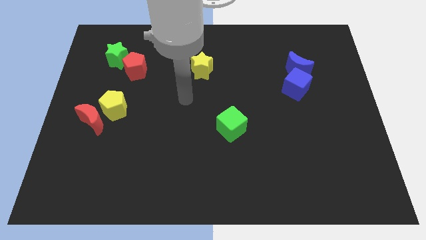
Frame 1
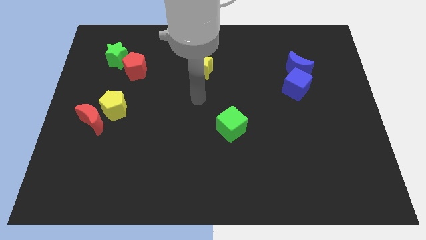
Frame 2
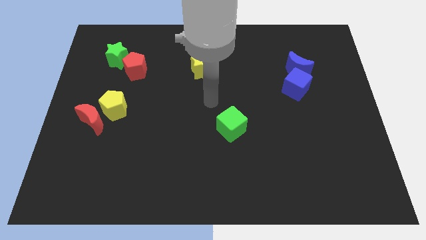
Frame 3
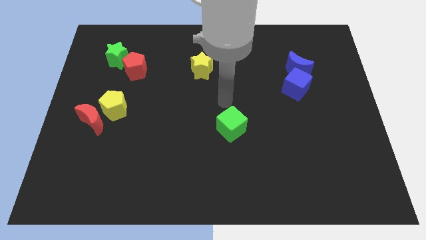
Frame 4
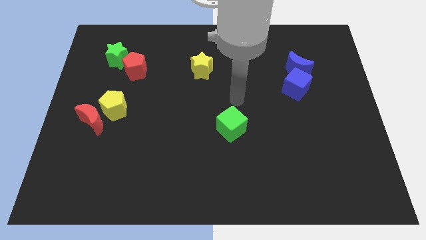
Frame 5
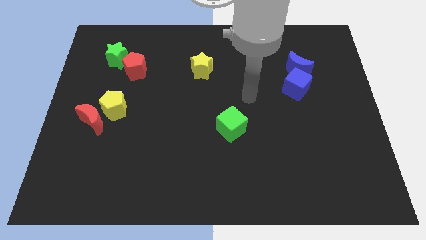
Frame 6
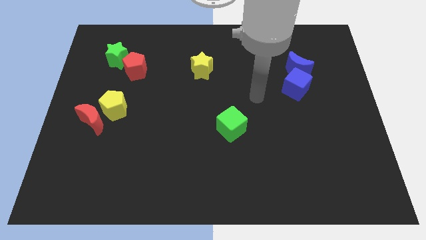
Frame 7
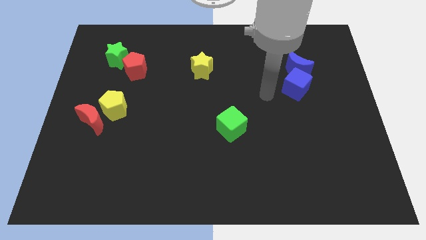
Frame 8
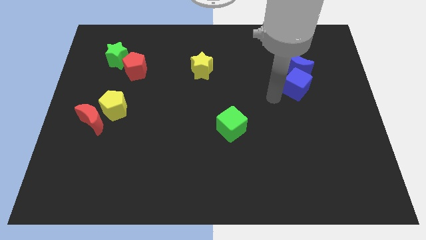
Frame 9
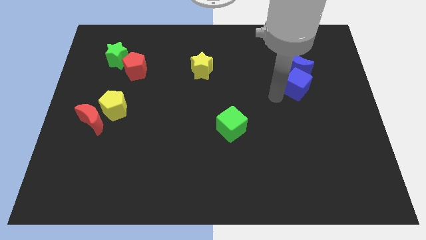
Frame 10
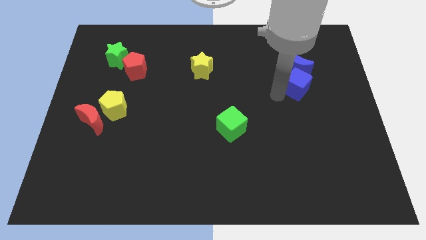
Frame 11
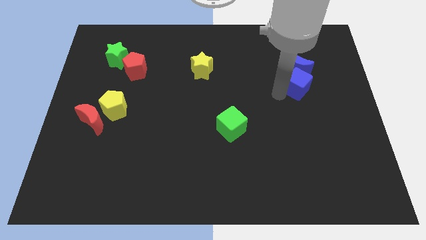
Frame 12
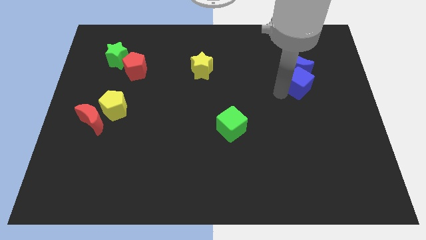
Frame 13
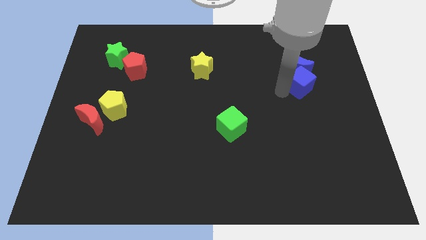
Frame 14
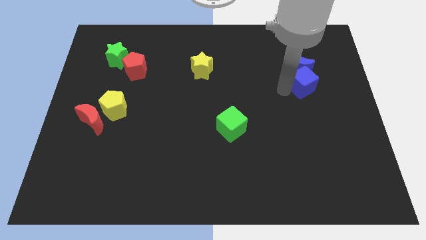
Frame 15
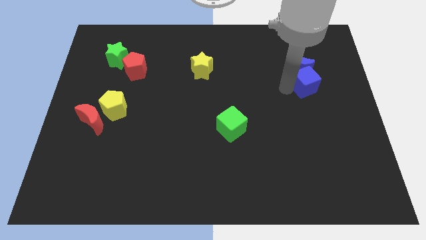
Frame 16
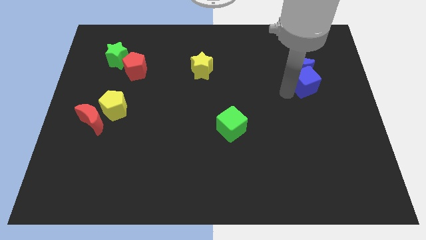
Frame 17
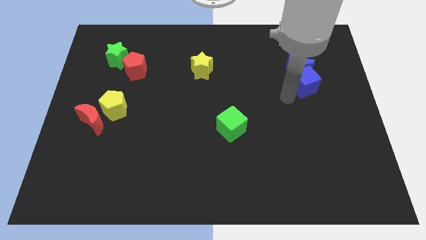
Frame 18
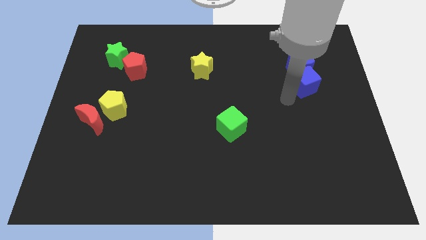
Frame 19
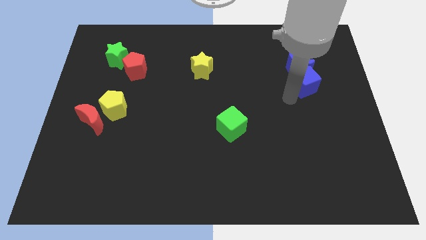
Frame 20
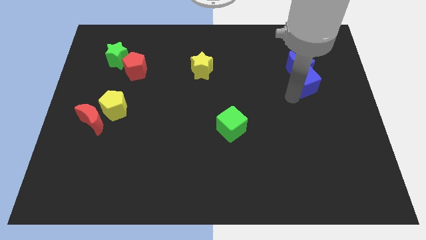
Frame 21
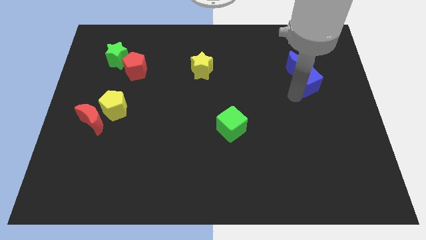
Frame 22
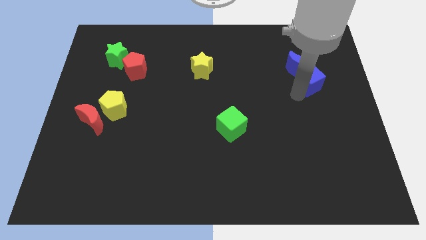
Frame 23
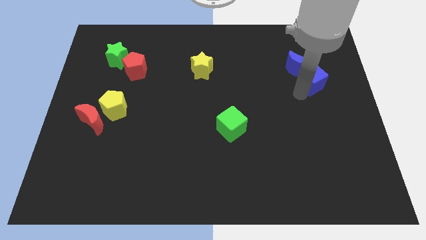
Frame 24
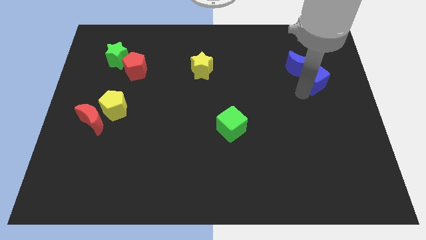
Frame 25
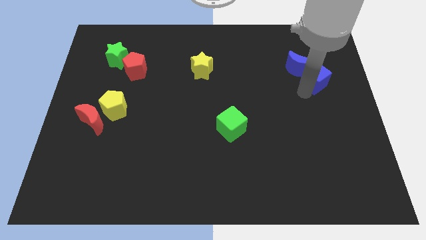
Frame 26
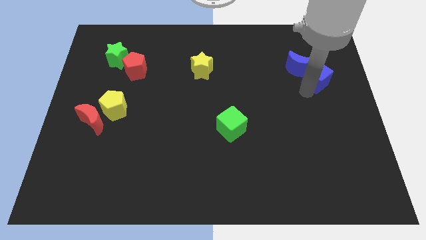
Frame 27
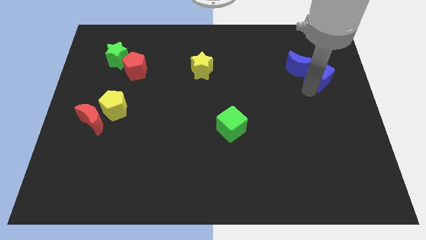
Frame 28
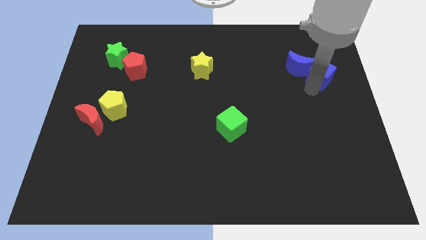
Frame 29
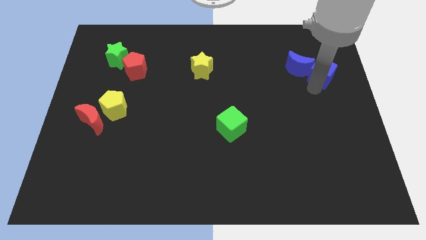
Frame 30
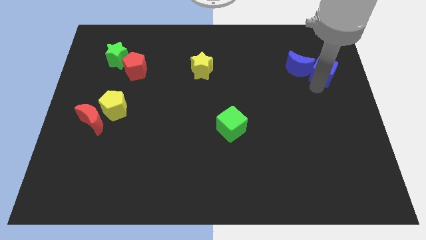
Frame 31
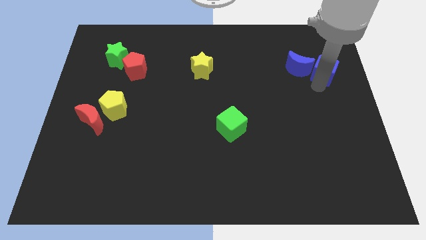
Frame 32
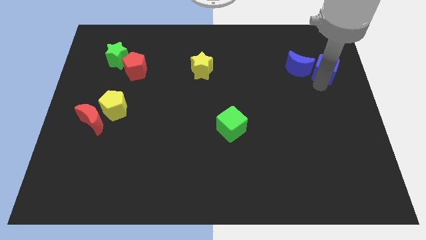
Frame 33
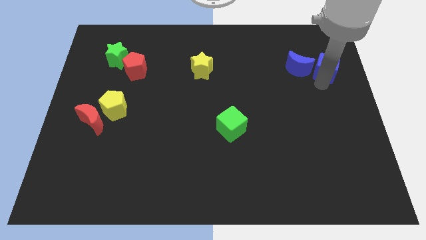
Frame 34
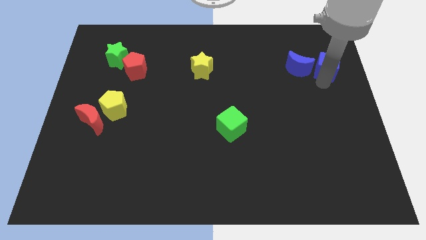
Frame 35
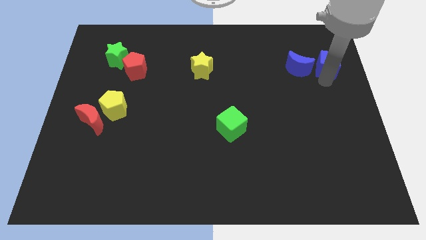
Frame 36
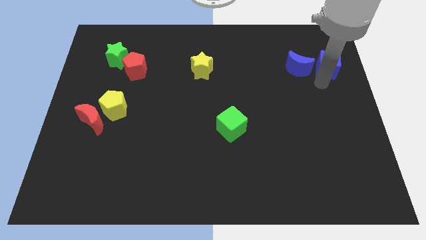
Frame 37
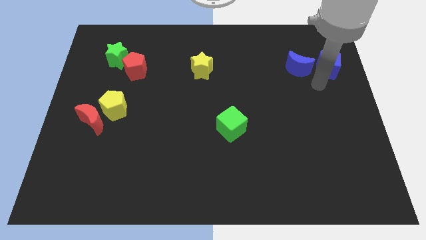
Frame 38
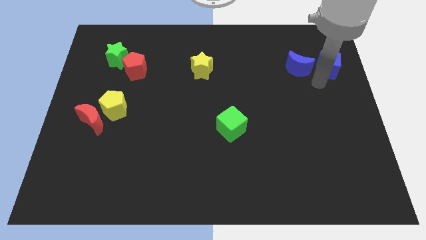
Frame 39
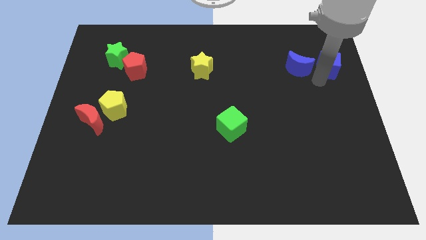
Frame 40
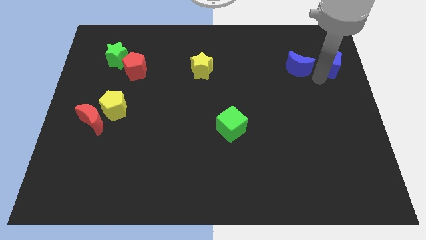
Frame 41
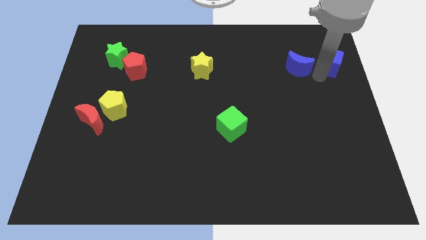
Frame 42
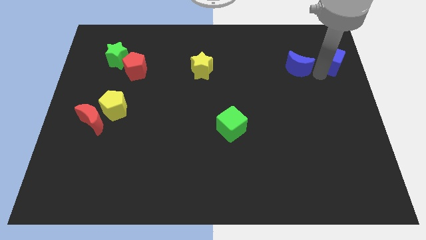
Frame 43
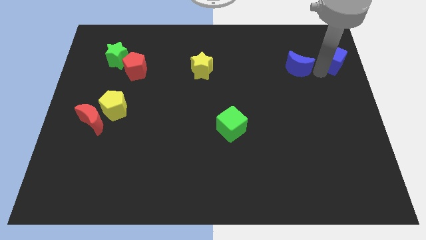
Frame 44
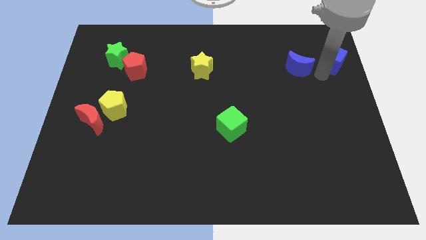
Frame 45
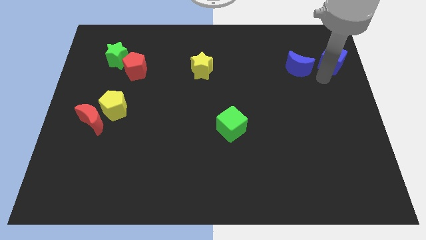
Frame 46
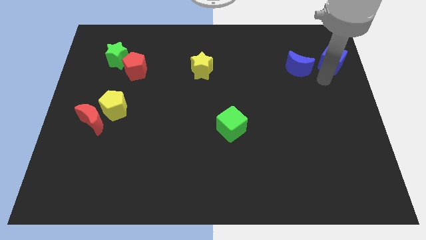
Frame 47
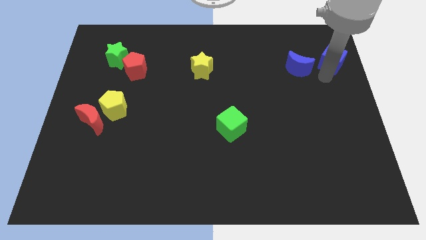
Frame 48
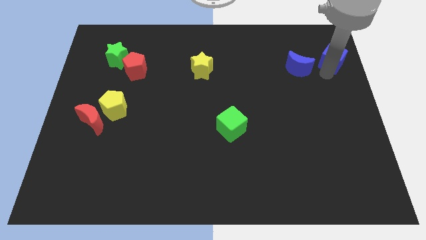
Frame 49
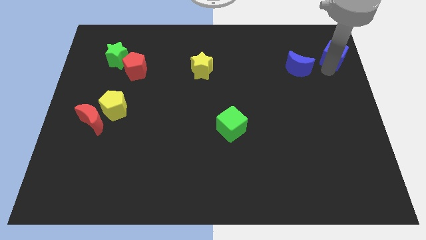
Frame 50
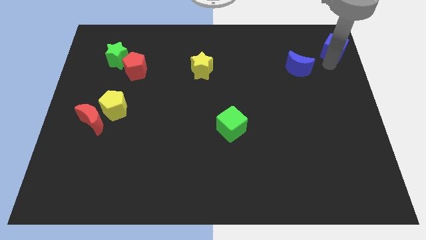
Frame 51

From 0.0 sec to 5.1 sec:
push the blue cube to the top right

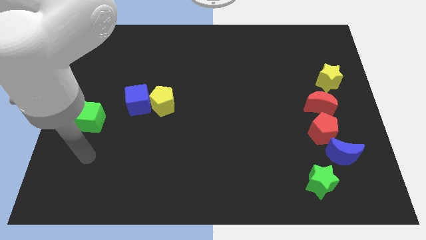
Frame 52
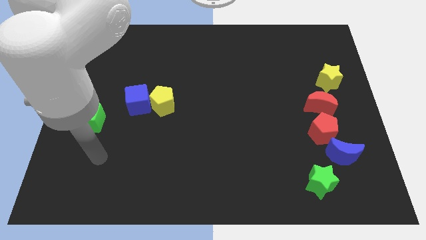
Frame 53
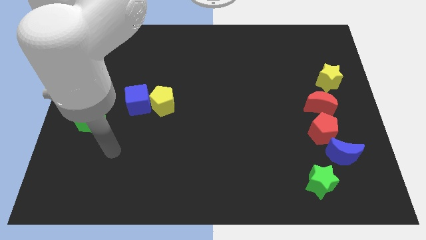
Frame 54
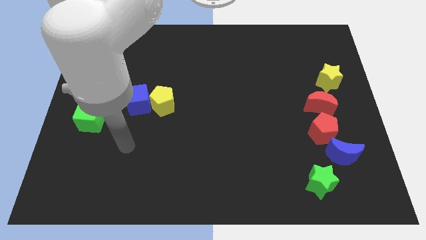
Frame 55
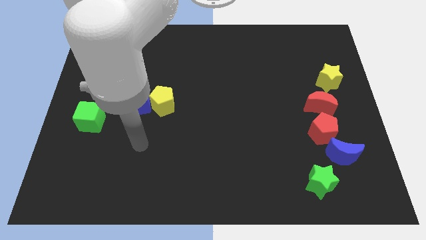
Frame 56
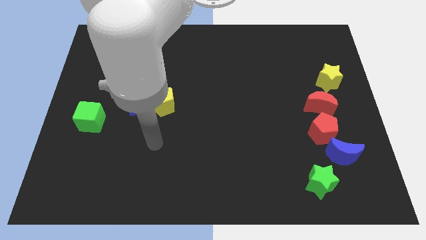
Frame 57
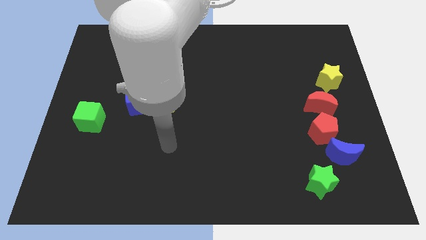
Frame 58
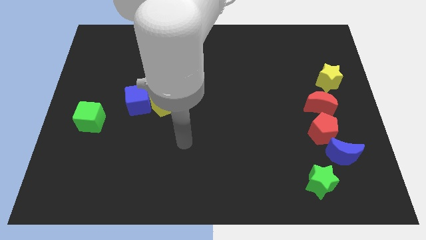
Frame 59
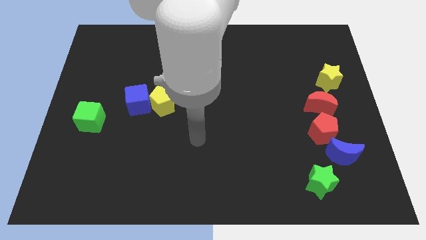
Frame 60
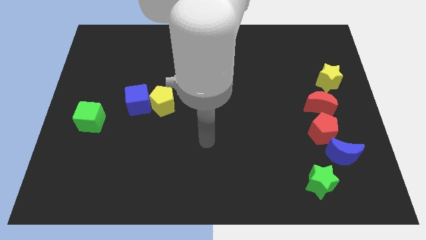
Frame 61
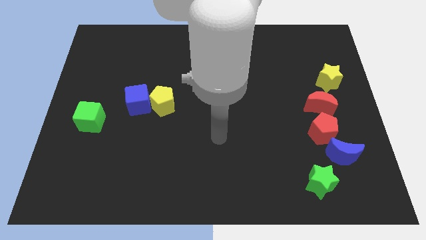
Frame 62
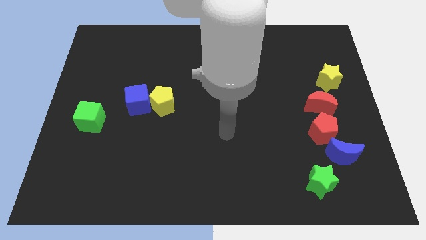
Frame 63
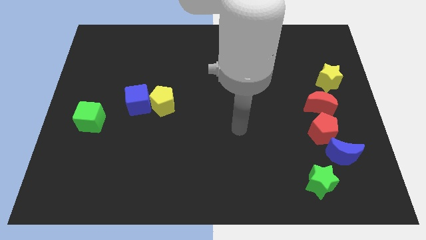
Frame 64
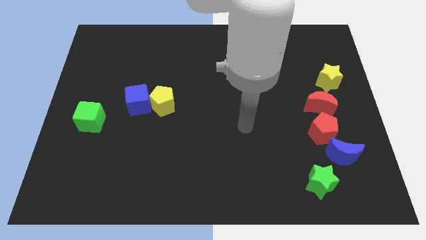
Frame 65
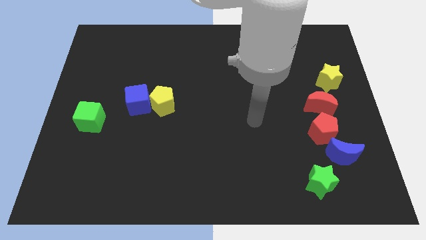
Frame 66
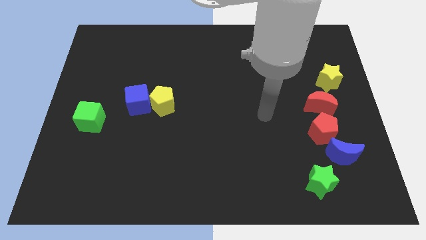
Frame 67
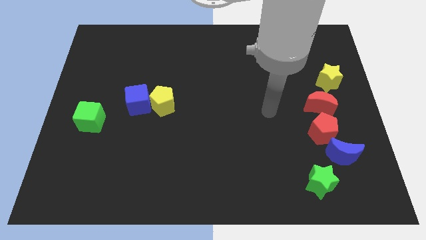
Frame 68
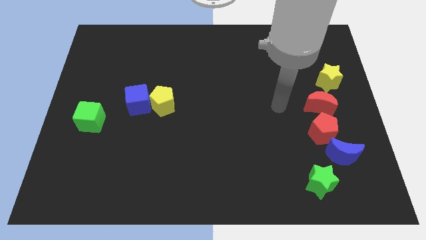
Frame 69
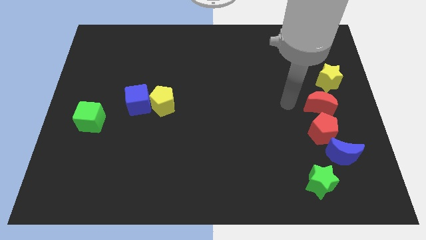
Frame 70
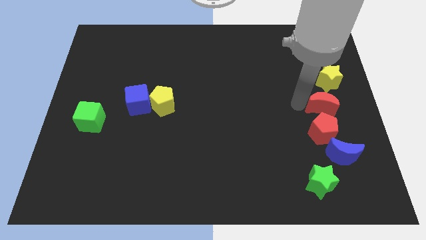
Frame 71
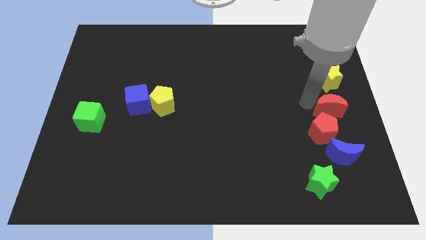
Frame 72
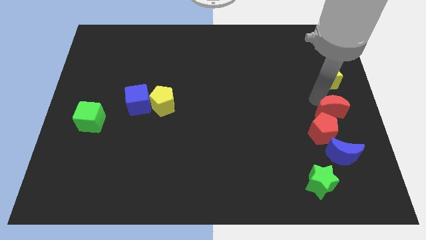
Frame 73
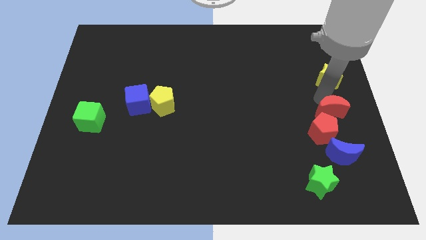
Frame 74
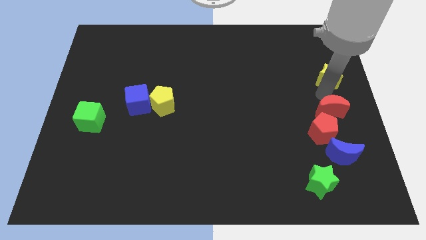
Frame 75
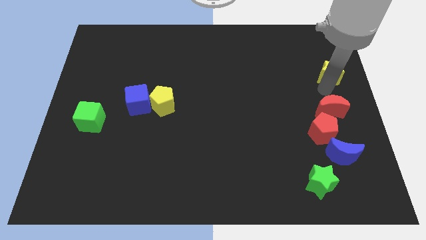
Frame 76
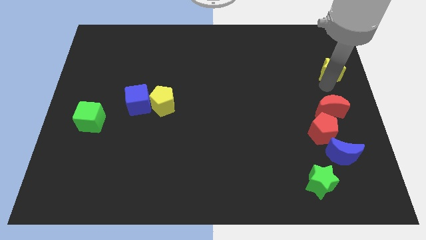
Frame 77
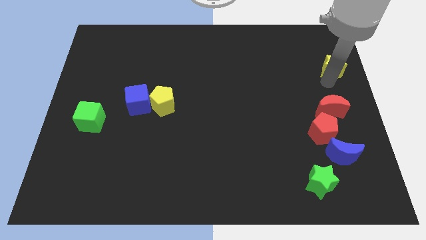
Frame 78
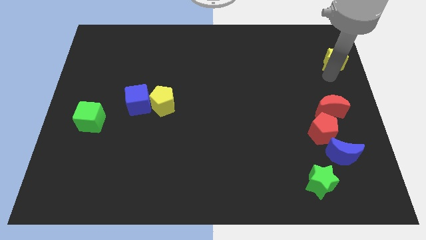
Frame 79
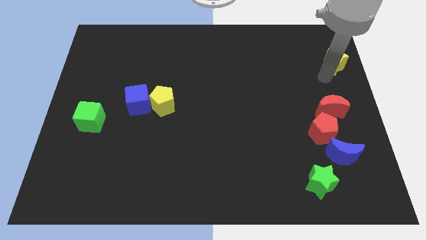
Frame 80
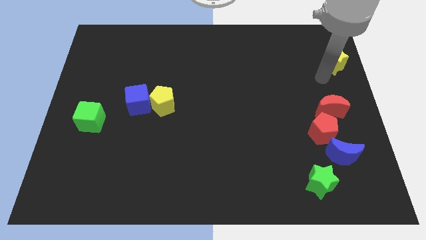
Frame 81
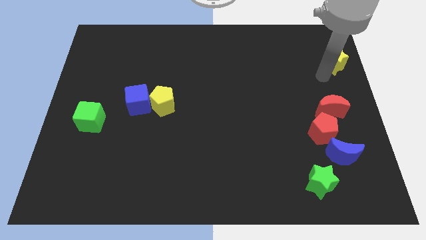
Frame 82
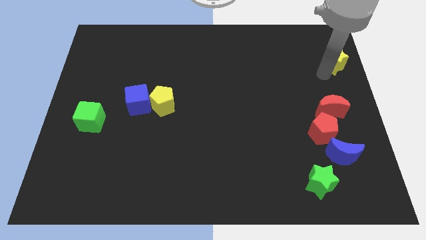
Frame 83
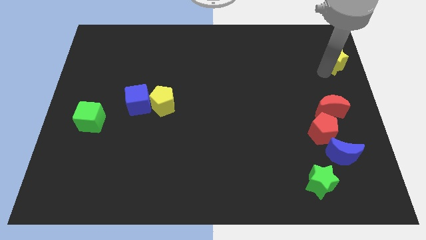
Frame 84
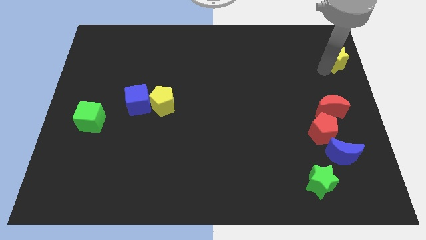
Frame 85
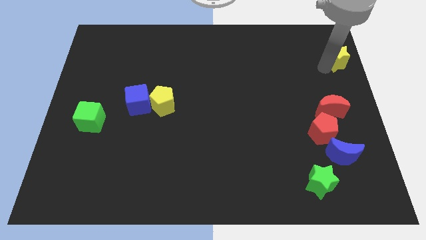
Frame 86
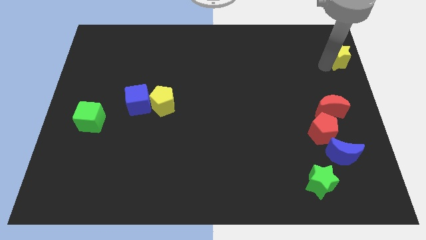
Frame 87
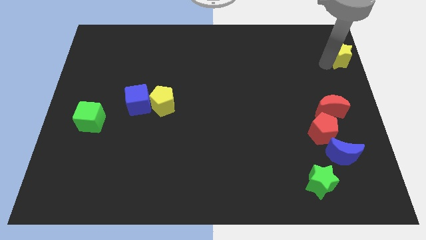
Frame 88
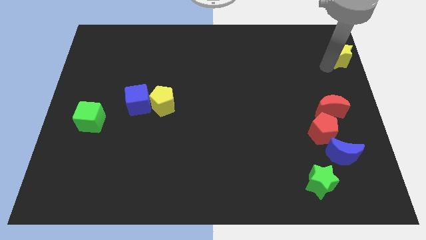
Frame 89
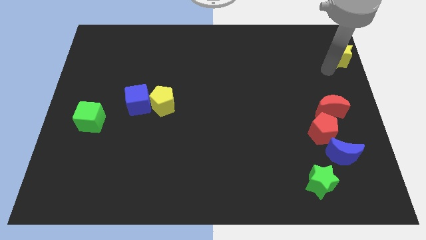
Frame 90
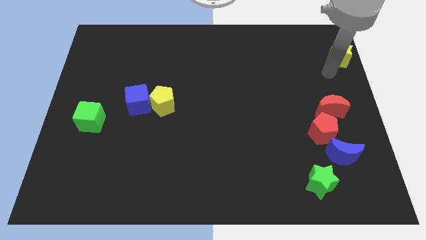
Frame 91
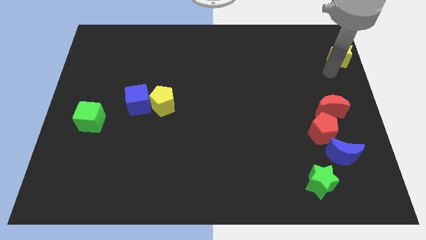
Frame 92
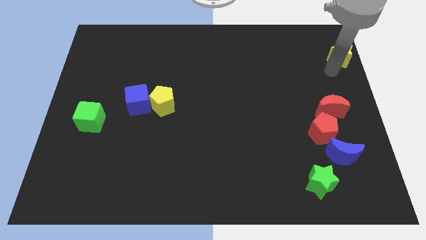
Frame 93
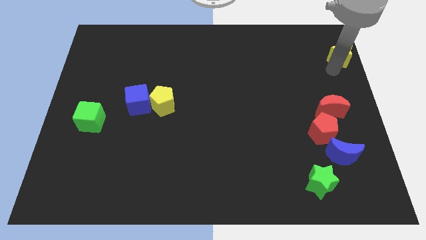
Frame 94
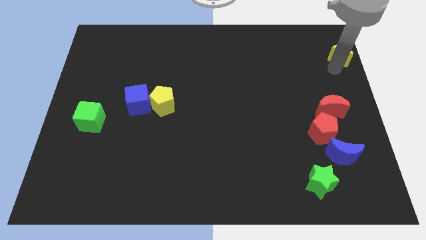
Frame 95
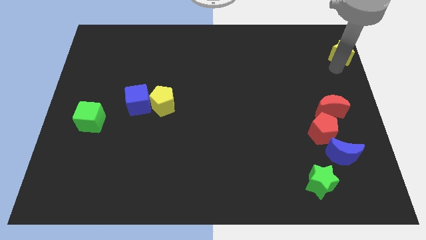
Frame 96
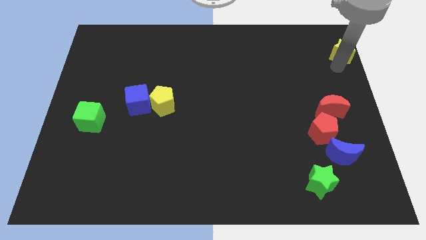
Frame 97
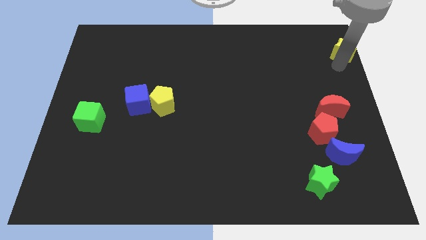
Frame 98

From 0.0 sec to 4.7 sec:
move the yellow star to the top right of the board
